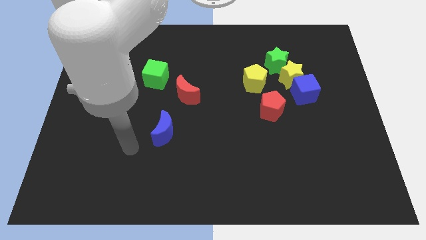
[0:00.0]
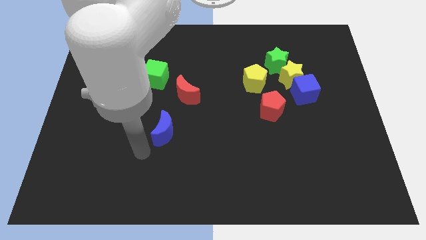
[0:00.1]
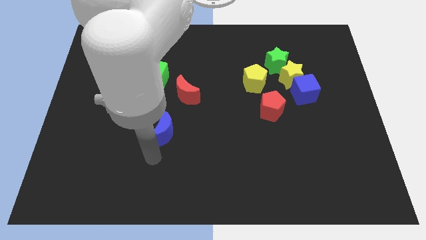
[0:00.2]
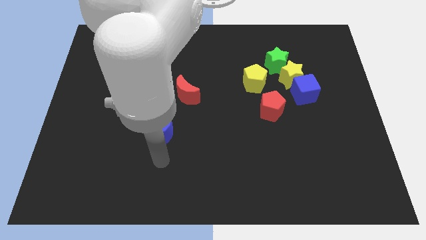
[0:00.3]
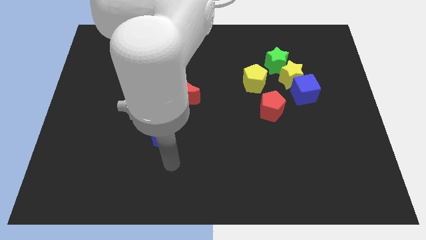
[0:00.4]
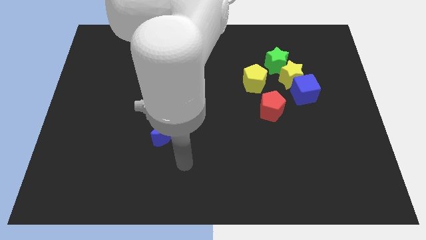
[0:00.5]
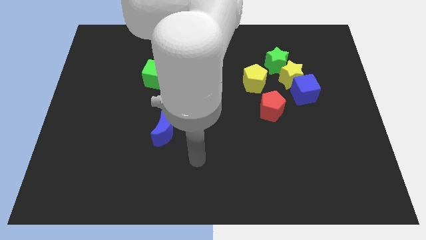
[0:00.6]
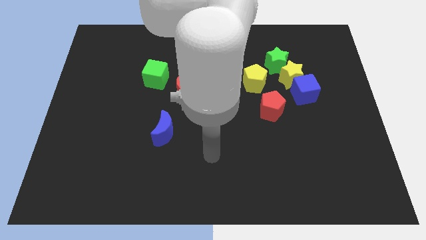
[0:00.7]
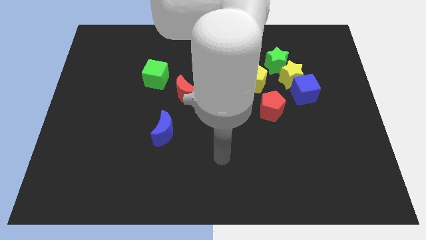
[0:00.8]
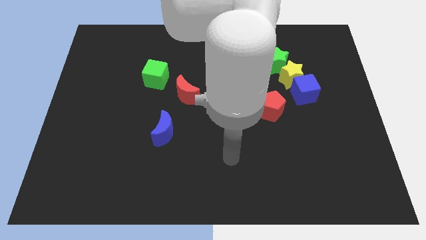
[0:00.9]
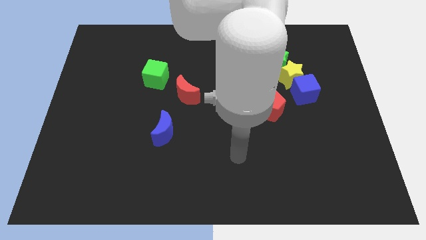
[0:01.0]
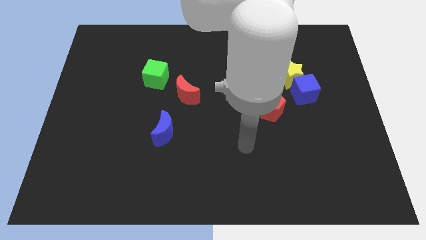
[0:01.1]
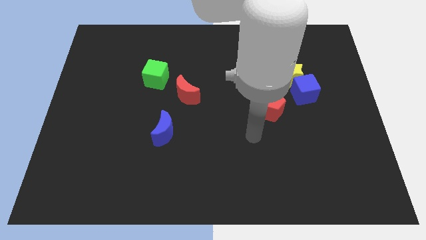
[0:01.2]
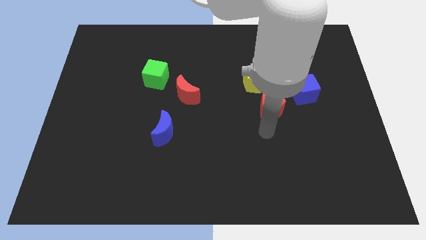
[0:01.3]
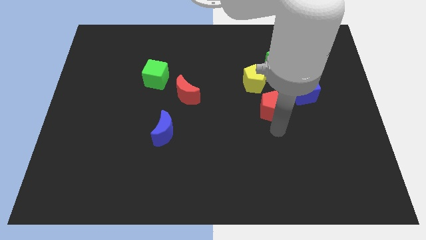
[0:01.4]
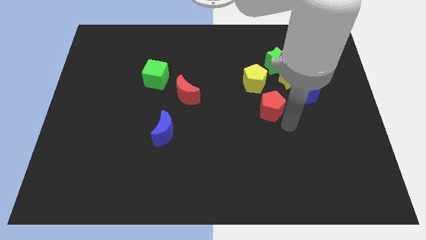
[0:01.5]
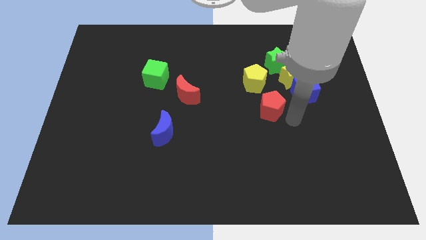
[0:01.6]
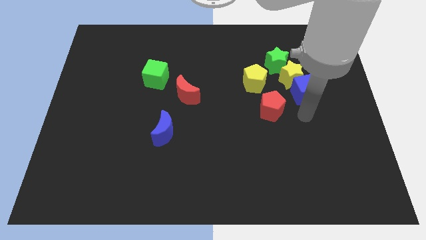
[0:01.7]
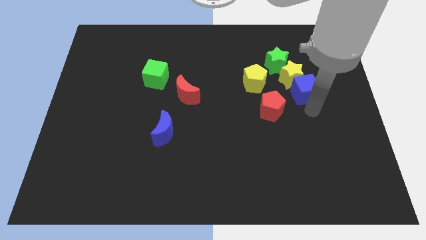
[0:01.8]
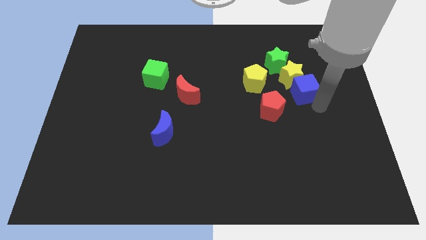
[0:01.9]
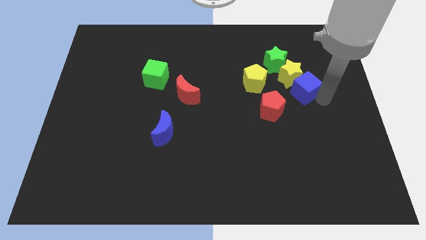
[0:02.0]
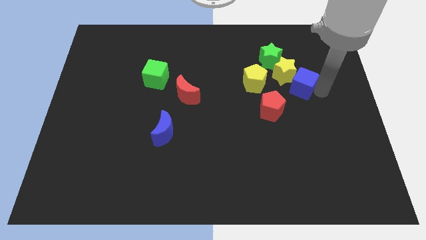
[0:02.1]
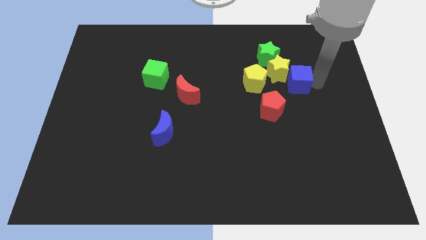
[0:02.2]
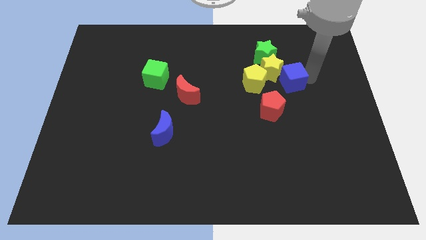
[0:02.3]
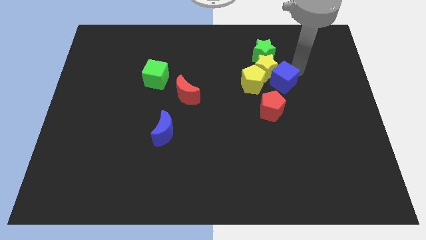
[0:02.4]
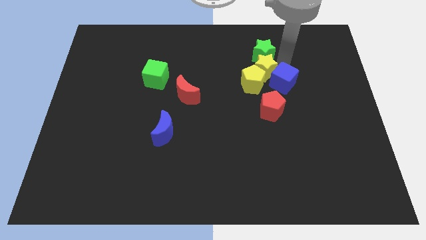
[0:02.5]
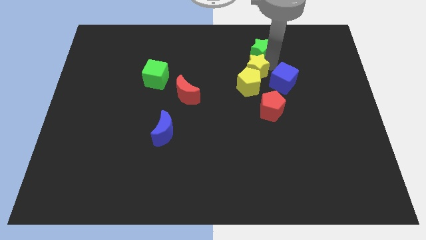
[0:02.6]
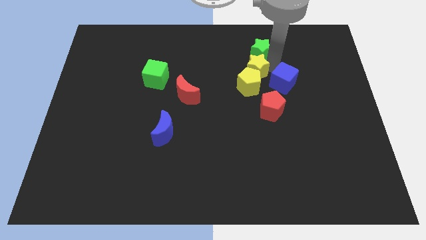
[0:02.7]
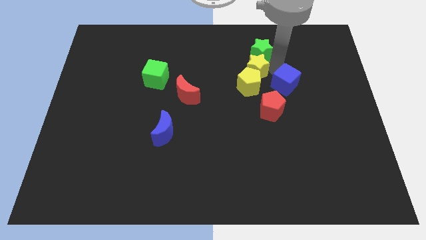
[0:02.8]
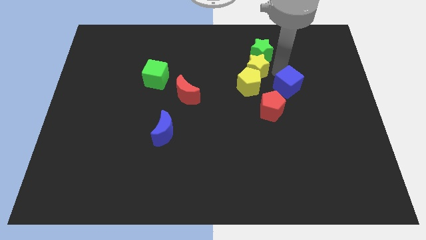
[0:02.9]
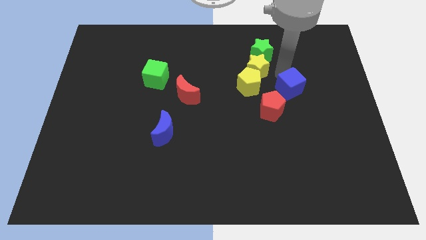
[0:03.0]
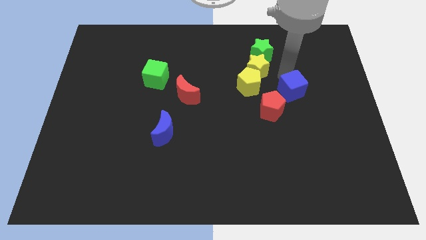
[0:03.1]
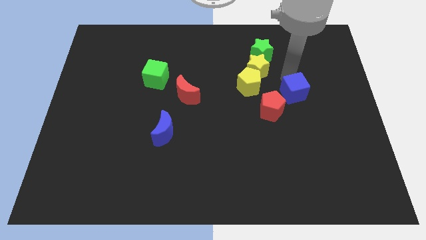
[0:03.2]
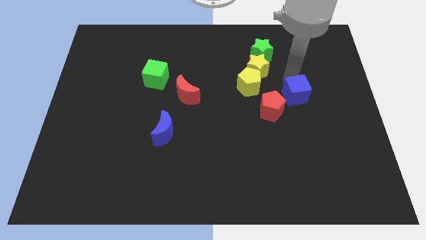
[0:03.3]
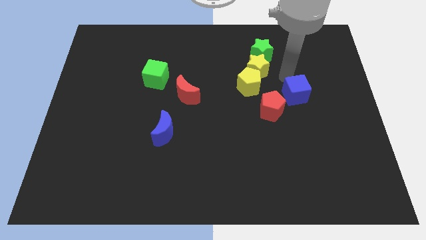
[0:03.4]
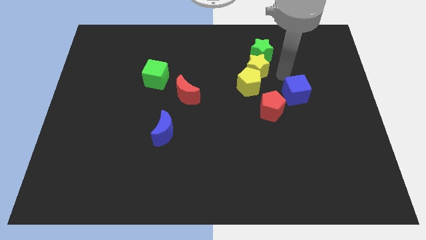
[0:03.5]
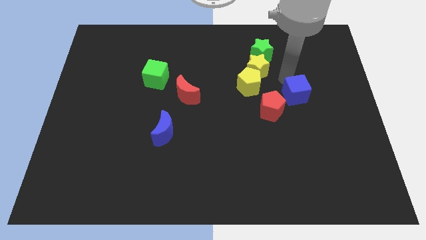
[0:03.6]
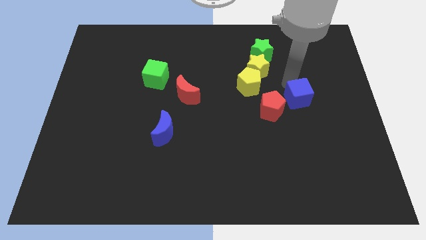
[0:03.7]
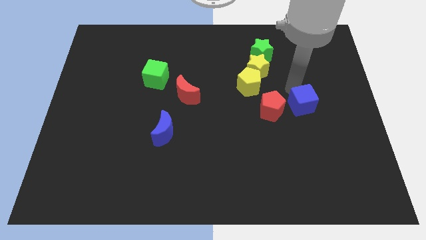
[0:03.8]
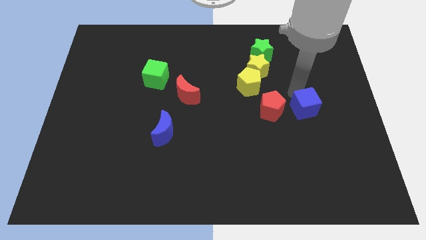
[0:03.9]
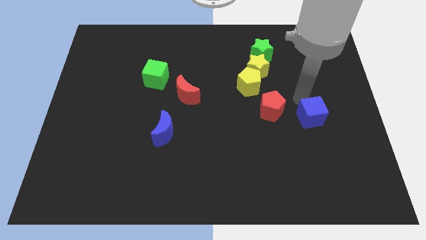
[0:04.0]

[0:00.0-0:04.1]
slightly push the blue cube down

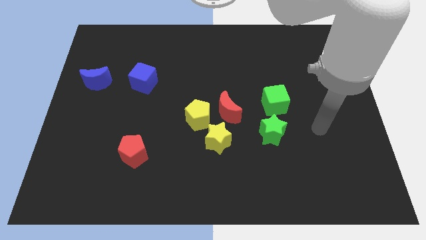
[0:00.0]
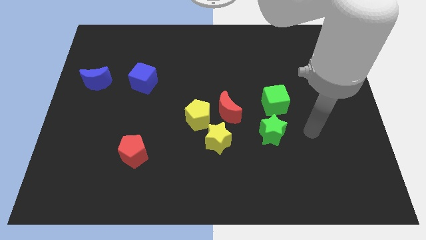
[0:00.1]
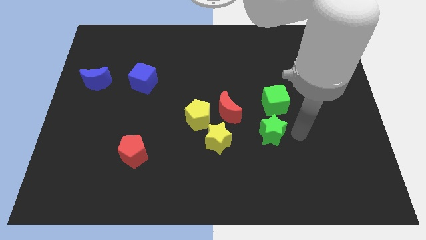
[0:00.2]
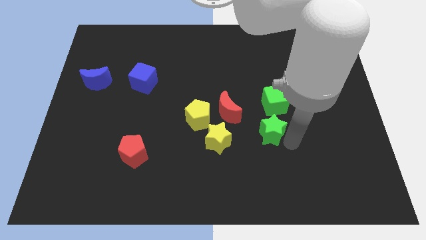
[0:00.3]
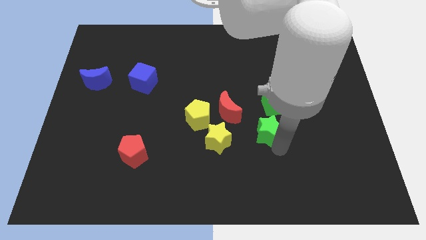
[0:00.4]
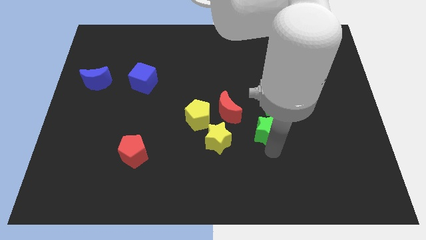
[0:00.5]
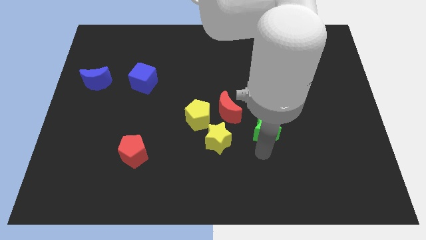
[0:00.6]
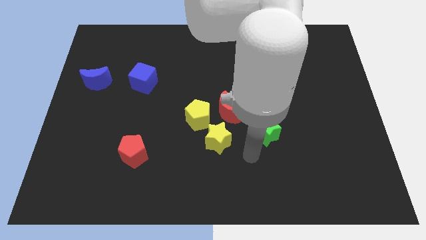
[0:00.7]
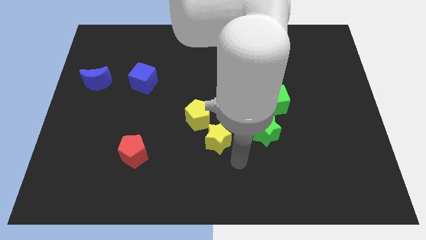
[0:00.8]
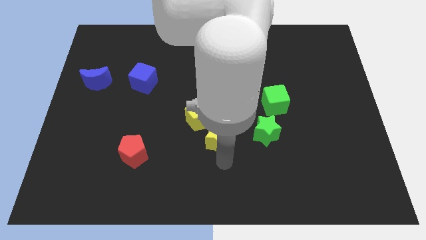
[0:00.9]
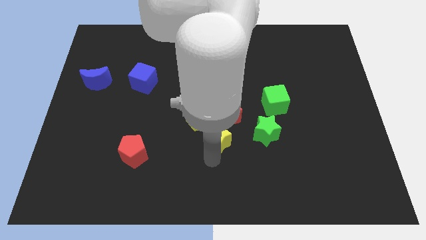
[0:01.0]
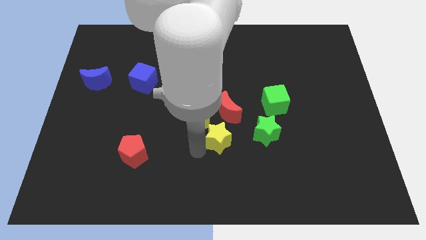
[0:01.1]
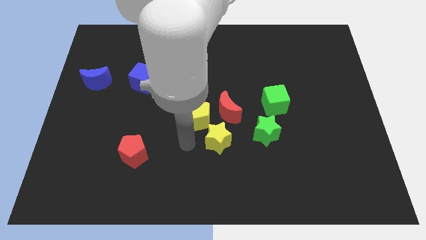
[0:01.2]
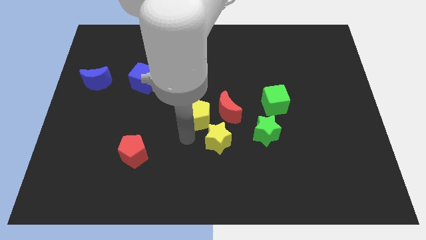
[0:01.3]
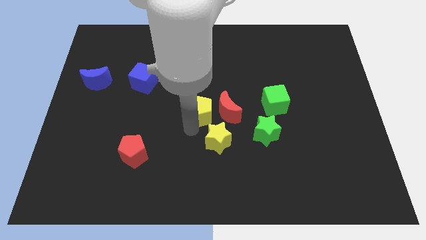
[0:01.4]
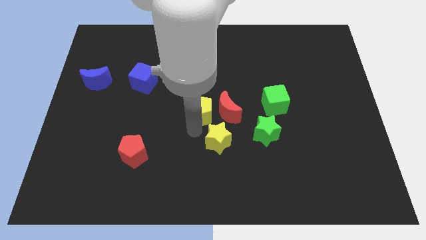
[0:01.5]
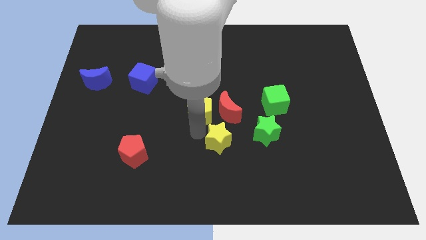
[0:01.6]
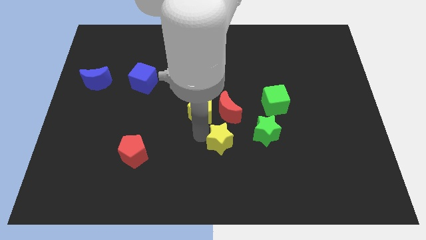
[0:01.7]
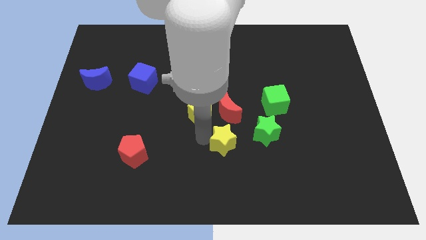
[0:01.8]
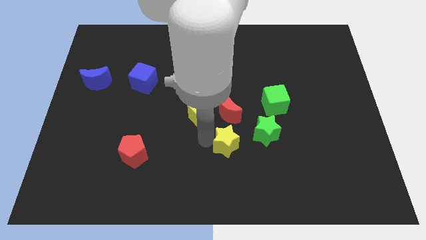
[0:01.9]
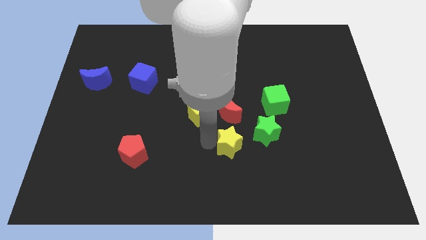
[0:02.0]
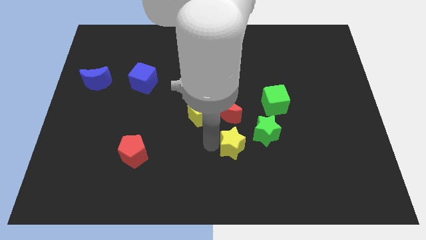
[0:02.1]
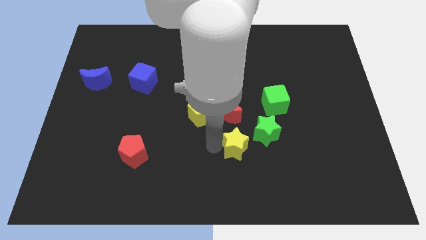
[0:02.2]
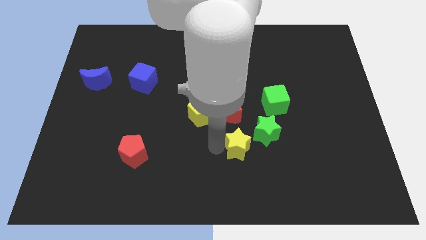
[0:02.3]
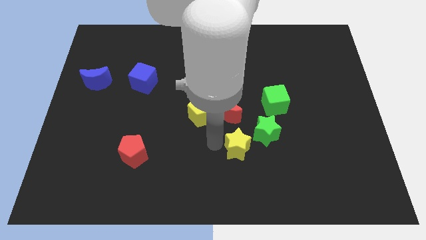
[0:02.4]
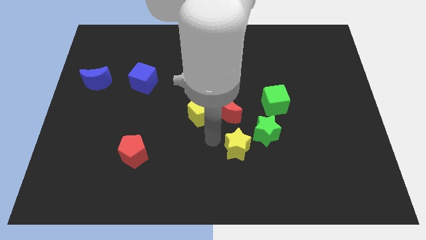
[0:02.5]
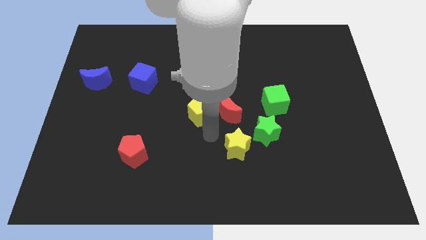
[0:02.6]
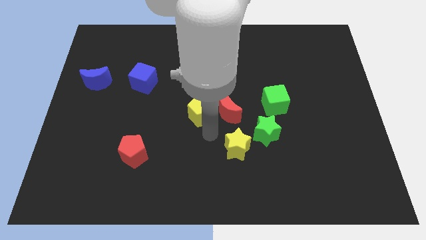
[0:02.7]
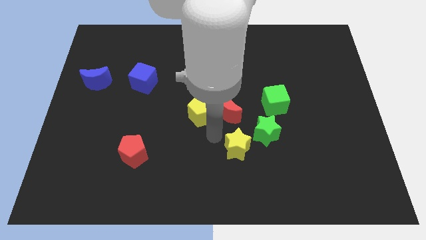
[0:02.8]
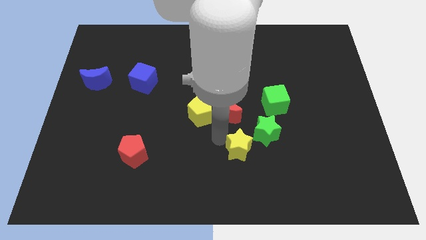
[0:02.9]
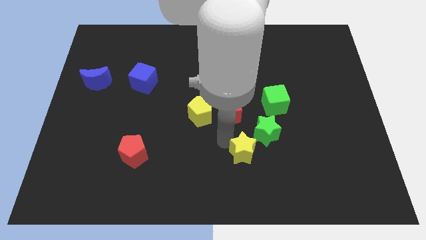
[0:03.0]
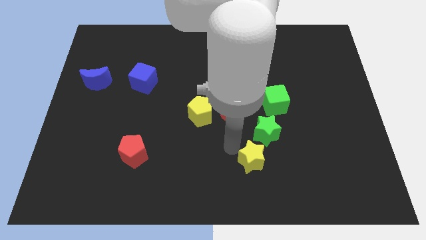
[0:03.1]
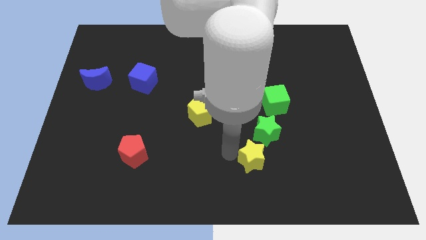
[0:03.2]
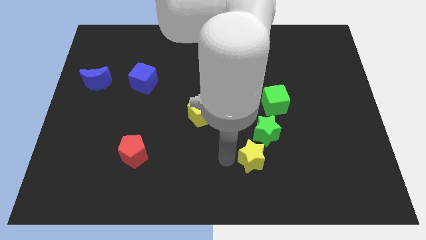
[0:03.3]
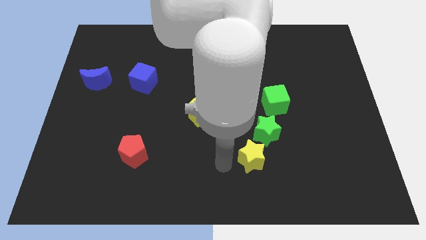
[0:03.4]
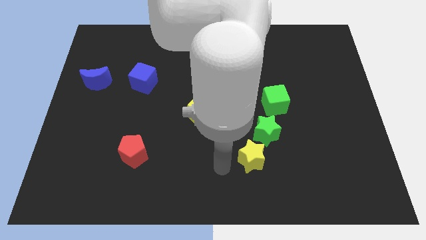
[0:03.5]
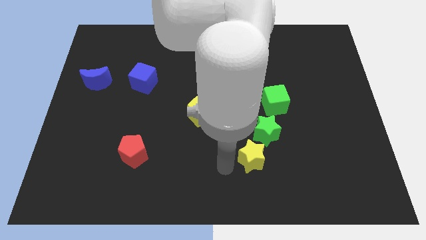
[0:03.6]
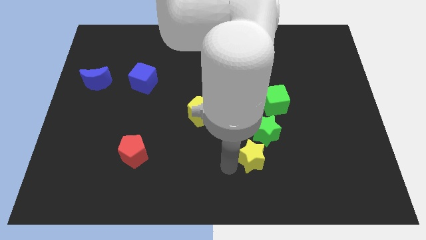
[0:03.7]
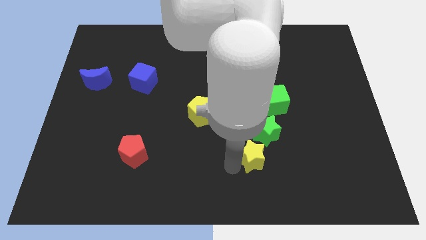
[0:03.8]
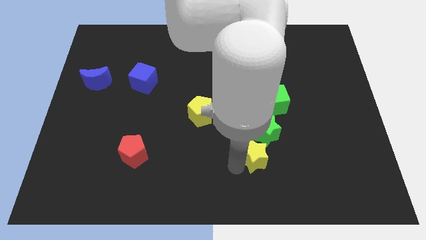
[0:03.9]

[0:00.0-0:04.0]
push the yellow star a little bit to the right

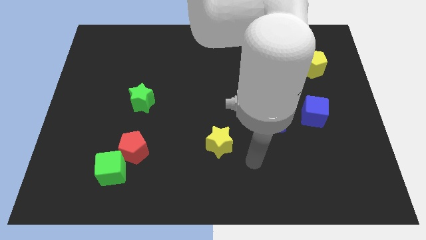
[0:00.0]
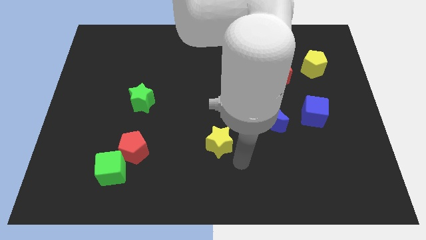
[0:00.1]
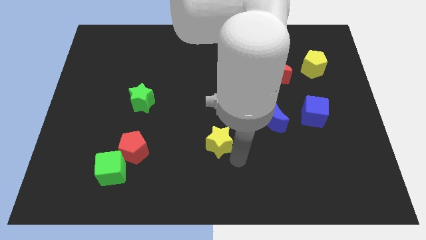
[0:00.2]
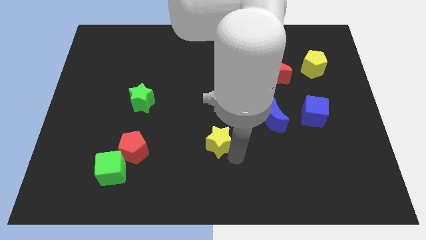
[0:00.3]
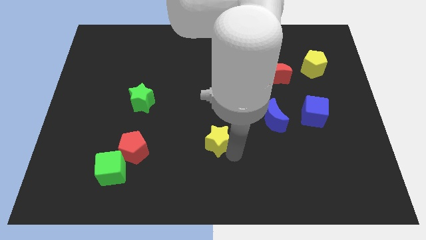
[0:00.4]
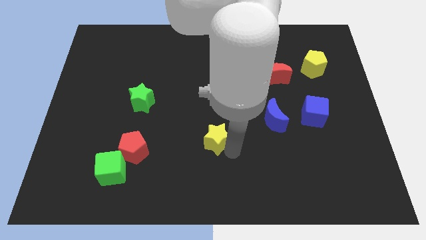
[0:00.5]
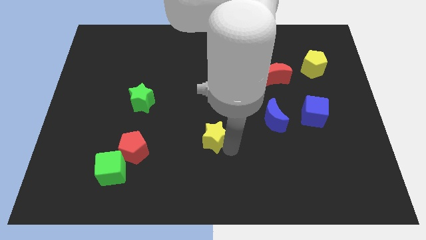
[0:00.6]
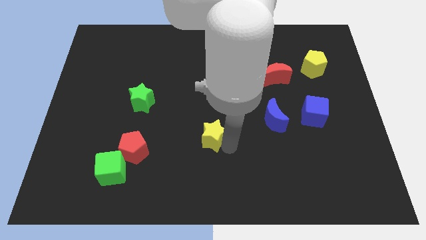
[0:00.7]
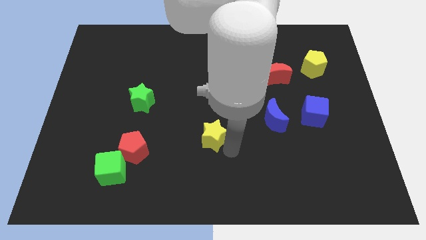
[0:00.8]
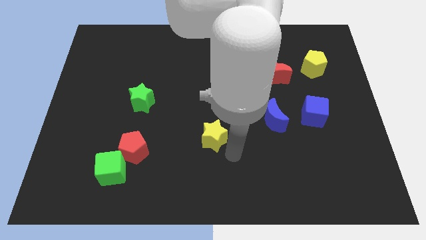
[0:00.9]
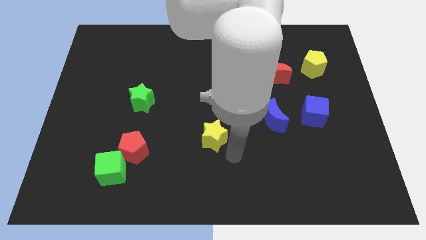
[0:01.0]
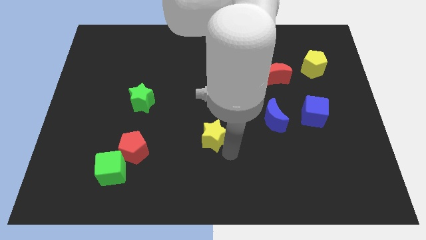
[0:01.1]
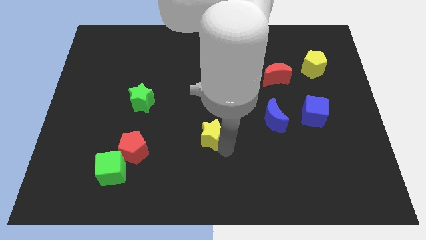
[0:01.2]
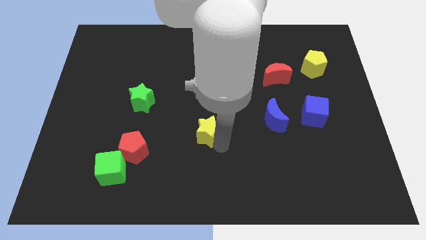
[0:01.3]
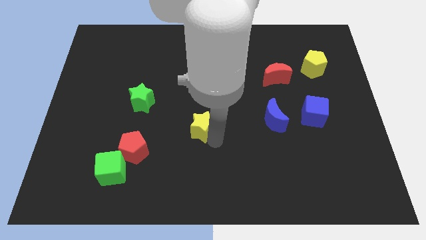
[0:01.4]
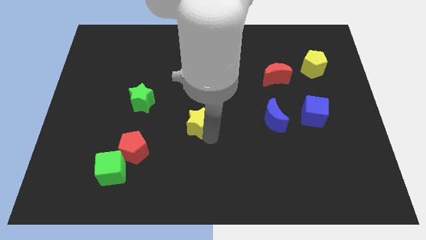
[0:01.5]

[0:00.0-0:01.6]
slide the yellow star upwards and left diagonally slightly
